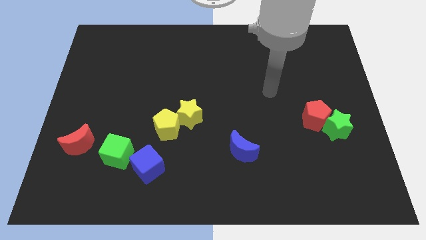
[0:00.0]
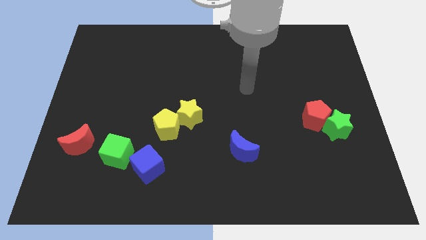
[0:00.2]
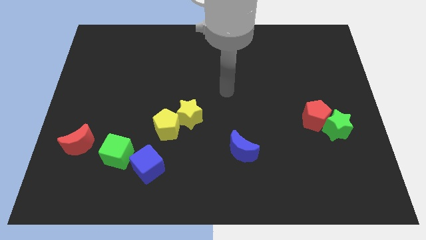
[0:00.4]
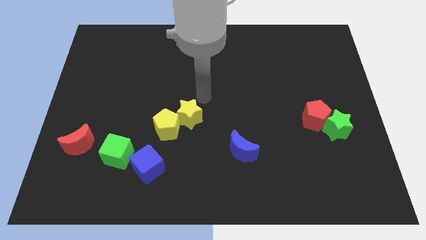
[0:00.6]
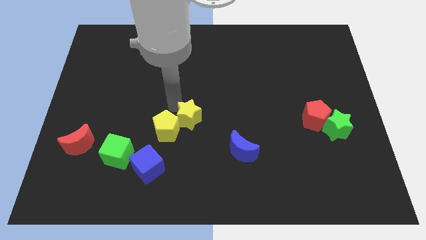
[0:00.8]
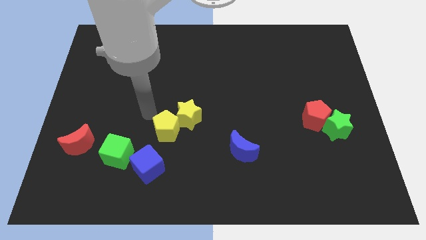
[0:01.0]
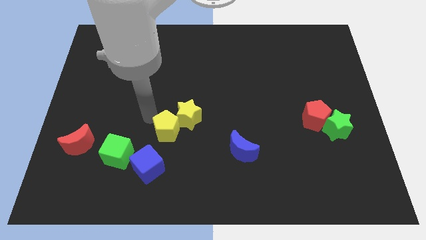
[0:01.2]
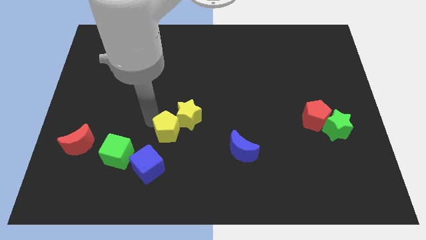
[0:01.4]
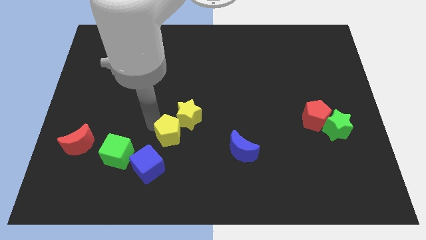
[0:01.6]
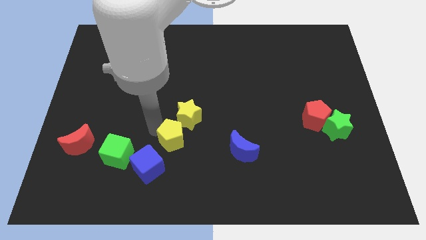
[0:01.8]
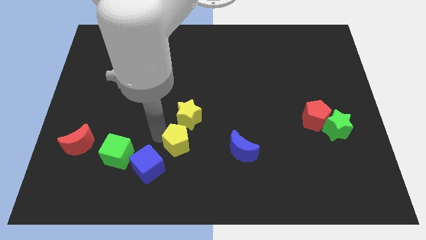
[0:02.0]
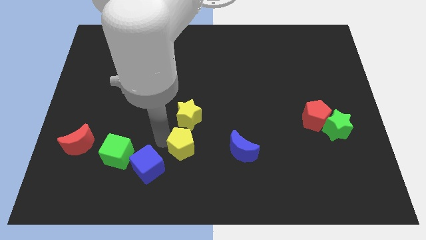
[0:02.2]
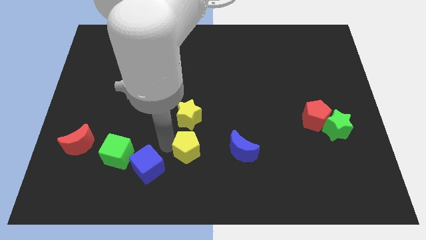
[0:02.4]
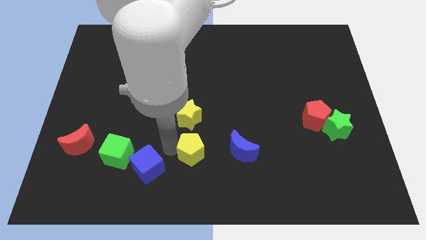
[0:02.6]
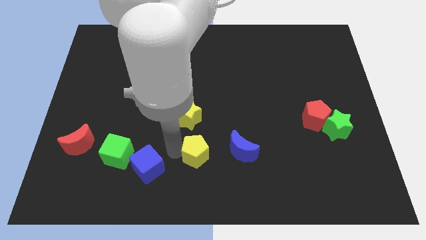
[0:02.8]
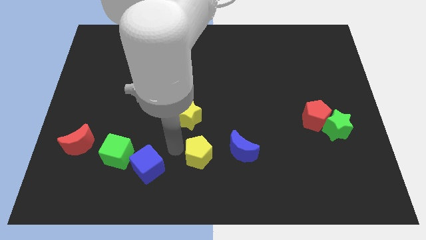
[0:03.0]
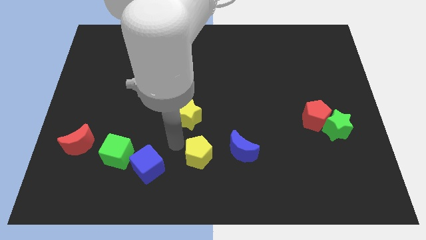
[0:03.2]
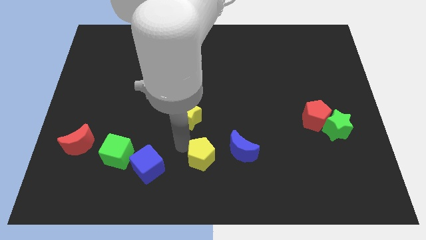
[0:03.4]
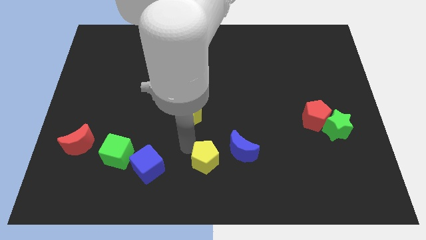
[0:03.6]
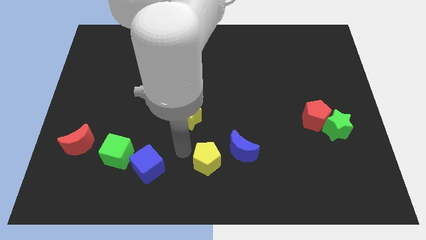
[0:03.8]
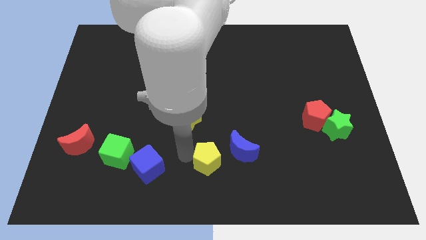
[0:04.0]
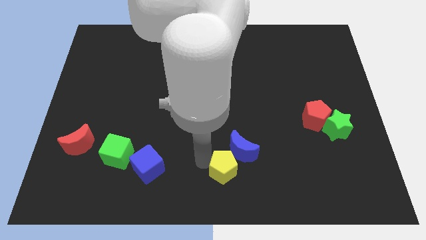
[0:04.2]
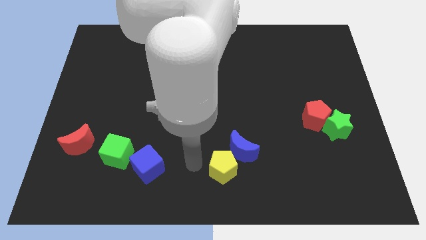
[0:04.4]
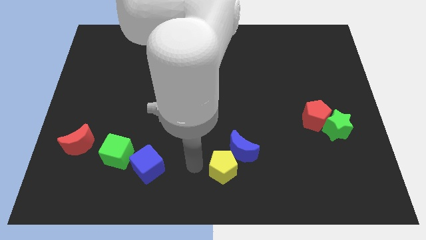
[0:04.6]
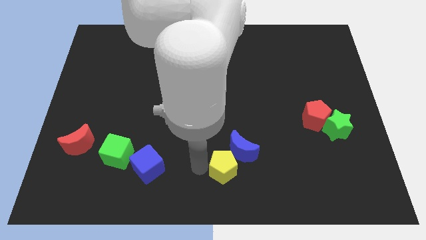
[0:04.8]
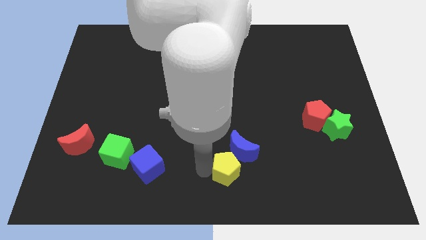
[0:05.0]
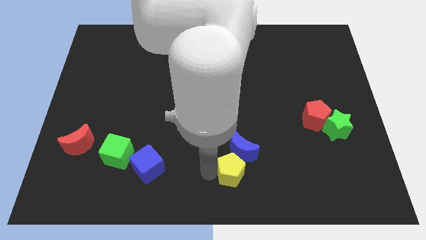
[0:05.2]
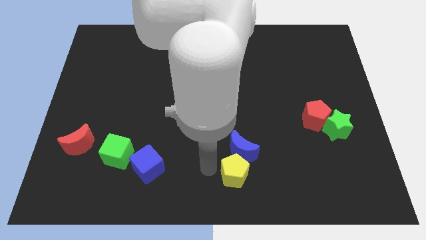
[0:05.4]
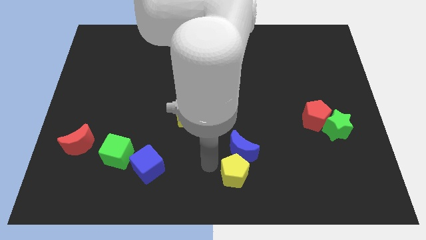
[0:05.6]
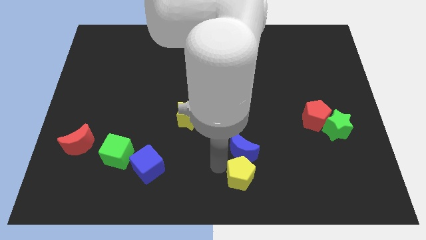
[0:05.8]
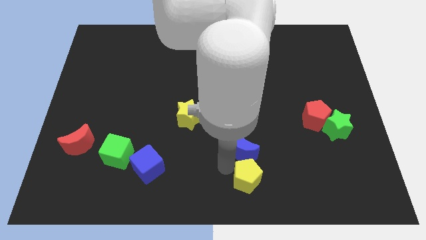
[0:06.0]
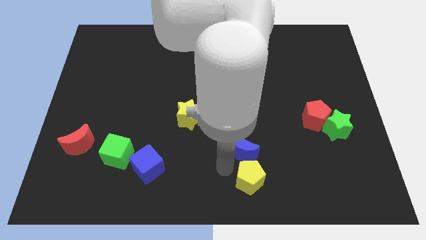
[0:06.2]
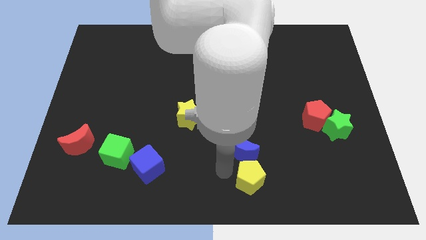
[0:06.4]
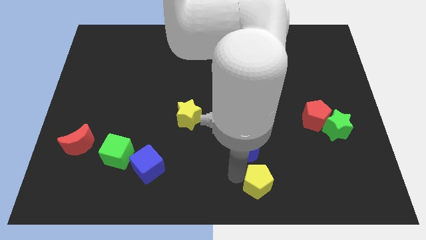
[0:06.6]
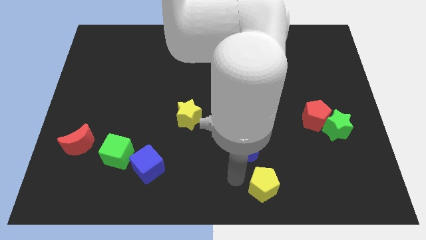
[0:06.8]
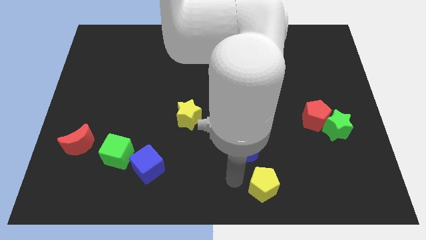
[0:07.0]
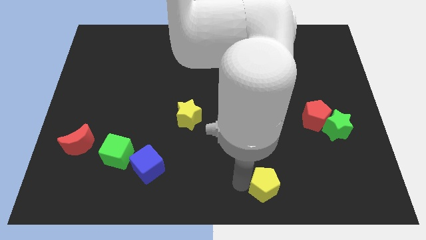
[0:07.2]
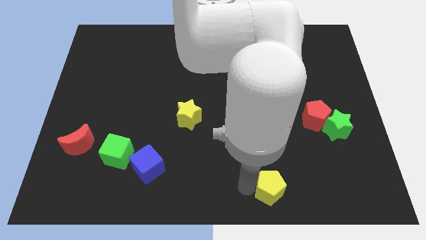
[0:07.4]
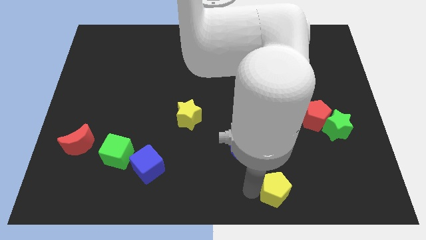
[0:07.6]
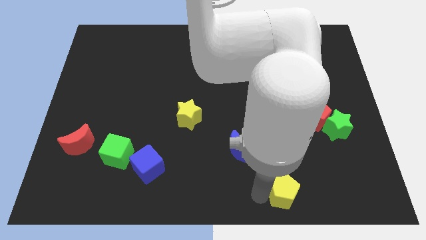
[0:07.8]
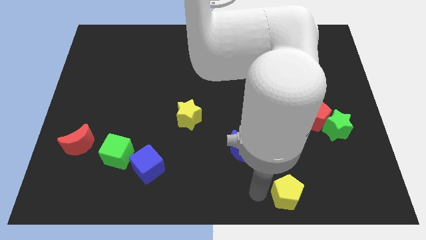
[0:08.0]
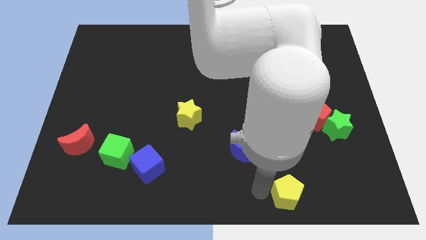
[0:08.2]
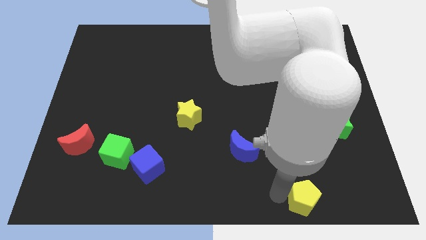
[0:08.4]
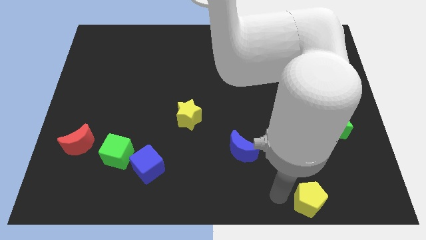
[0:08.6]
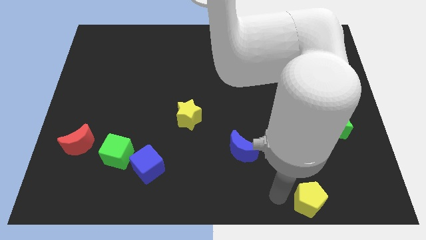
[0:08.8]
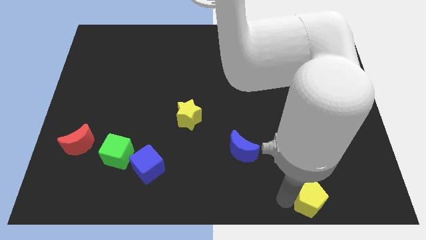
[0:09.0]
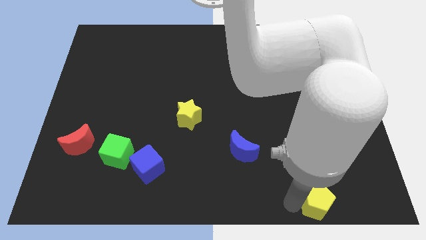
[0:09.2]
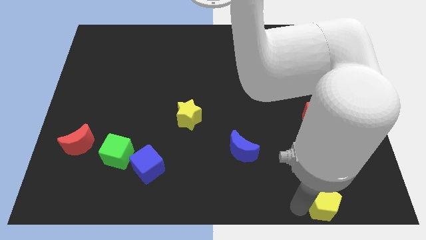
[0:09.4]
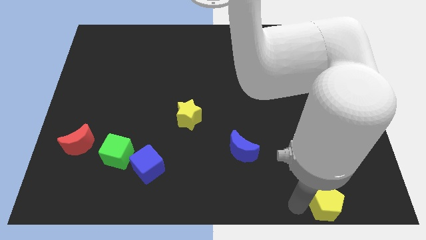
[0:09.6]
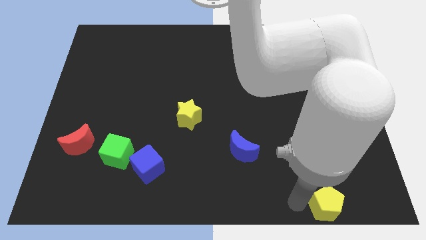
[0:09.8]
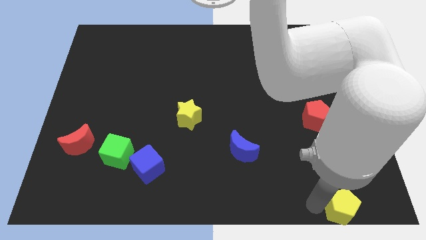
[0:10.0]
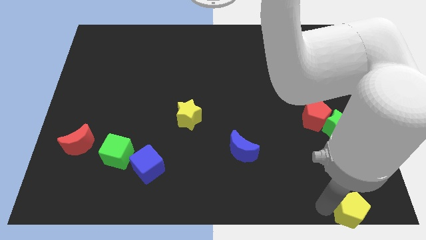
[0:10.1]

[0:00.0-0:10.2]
put the yellow pentagon to the bottom right

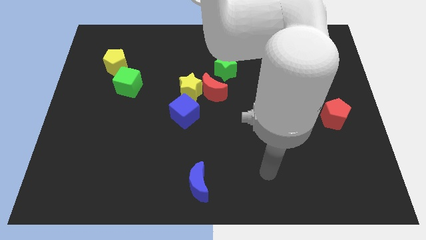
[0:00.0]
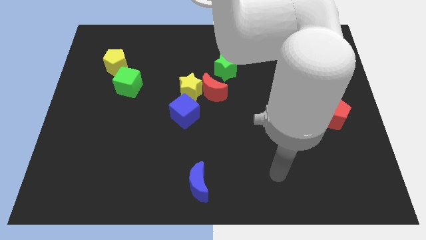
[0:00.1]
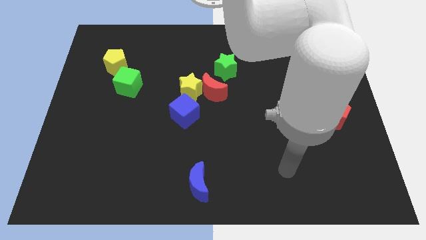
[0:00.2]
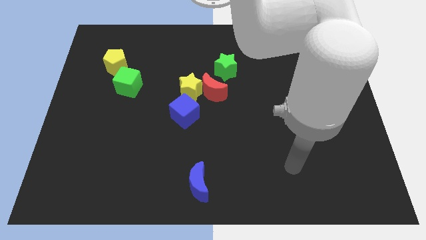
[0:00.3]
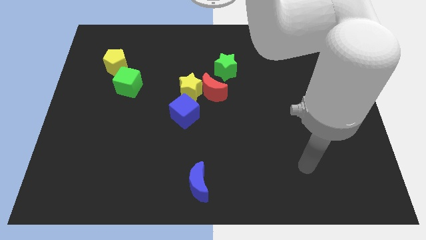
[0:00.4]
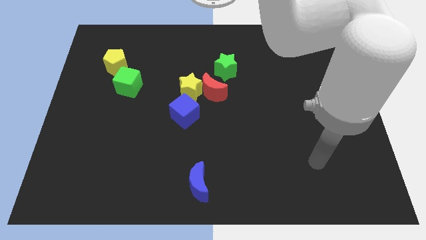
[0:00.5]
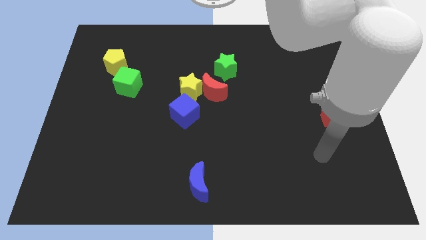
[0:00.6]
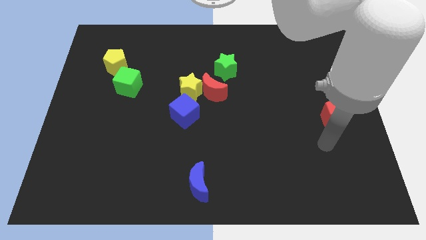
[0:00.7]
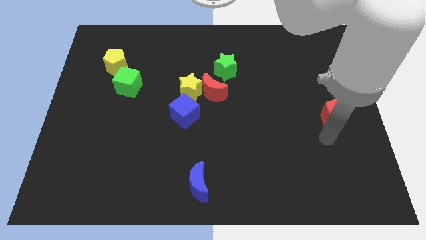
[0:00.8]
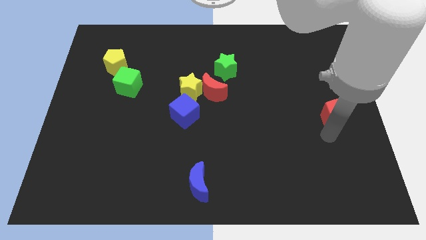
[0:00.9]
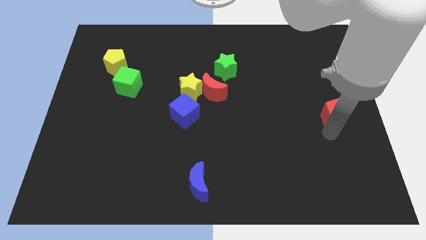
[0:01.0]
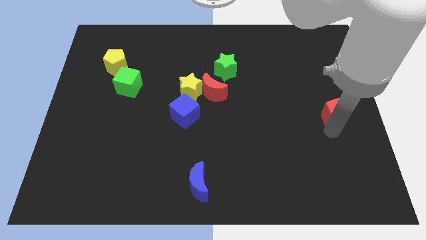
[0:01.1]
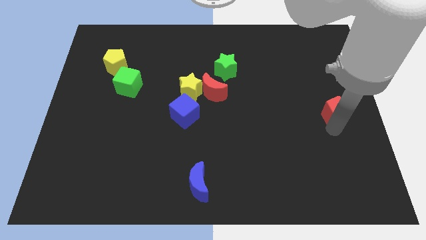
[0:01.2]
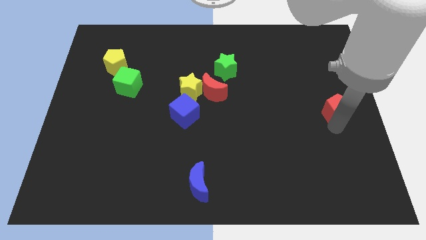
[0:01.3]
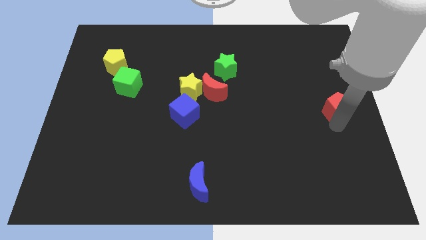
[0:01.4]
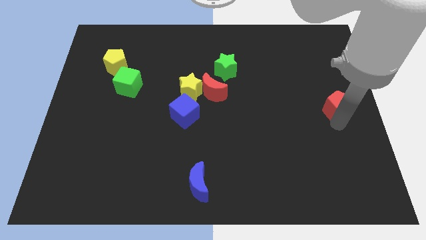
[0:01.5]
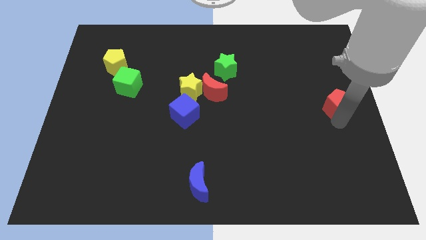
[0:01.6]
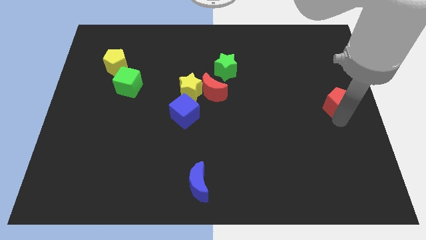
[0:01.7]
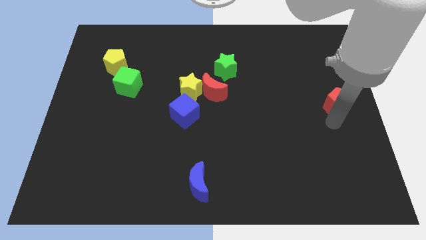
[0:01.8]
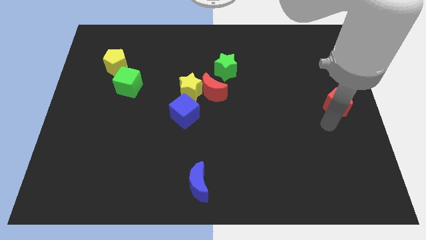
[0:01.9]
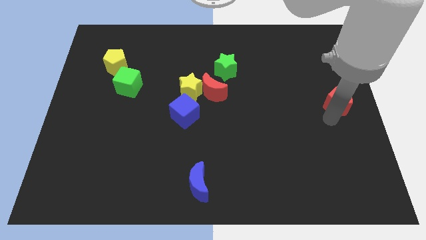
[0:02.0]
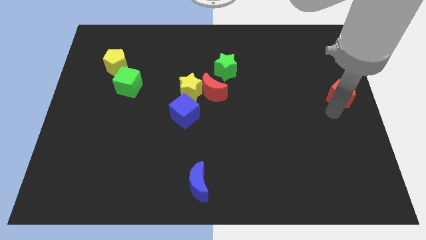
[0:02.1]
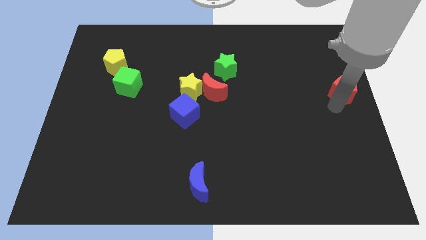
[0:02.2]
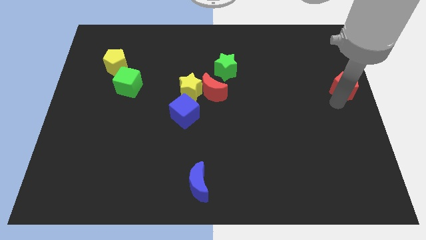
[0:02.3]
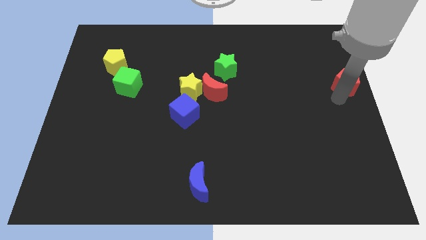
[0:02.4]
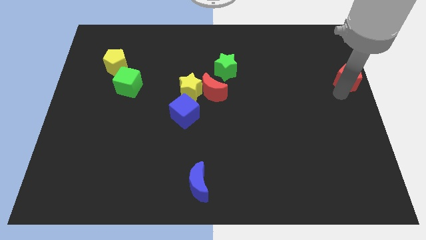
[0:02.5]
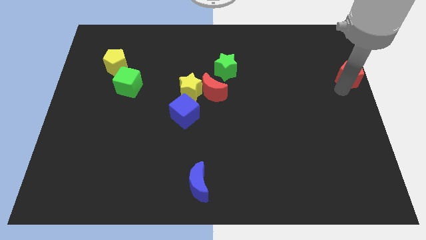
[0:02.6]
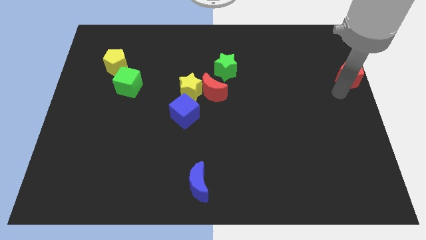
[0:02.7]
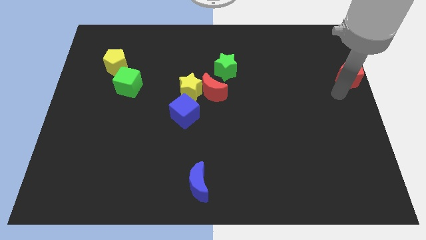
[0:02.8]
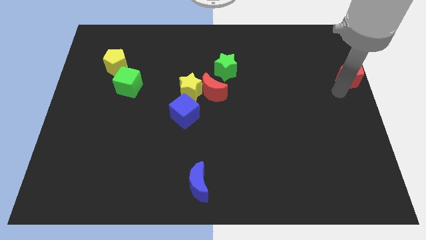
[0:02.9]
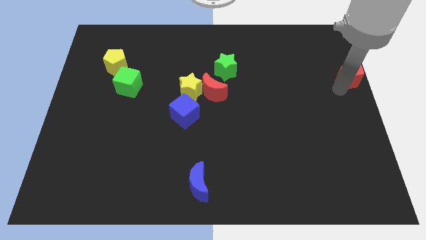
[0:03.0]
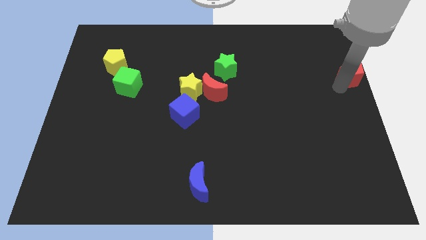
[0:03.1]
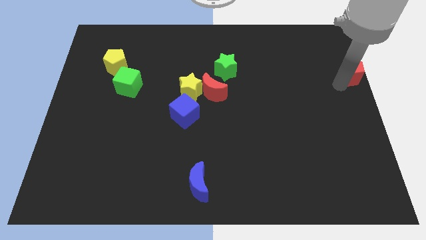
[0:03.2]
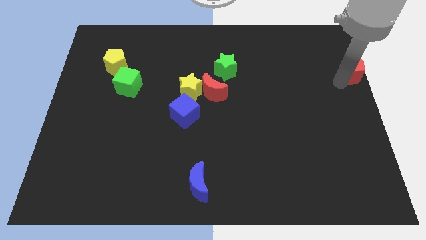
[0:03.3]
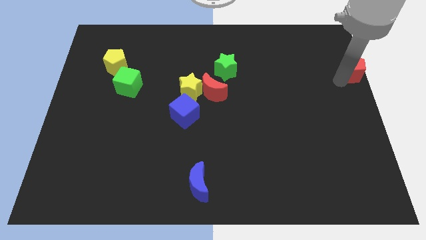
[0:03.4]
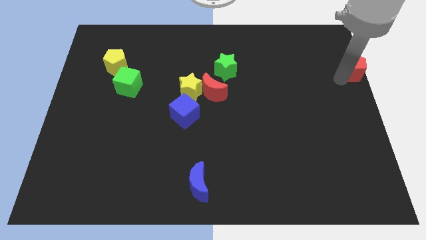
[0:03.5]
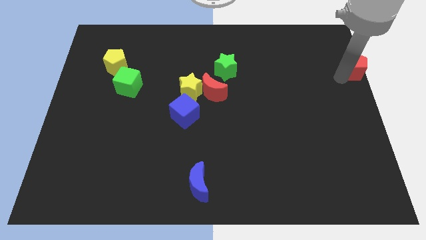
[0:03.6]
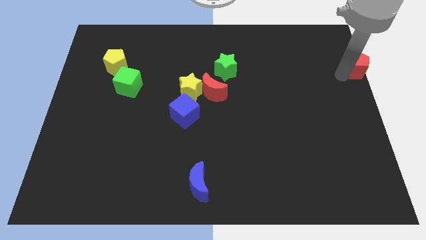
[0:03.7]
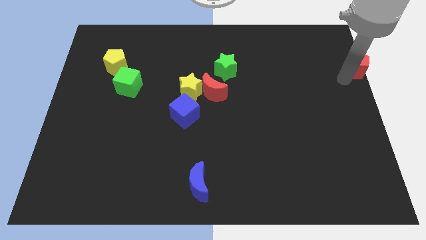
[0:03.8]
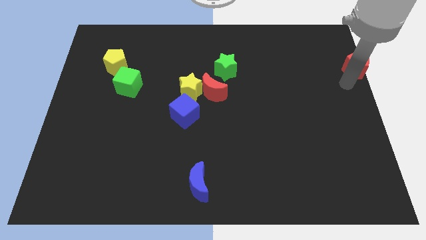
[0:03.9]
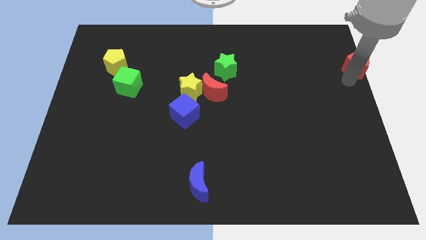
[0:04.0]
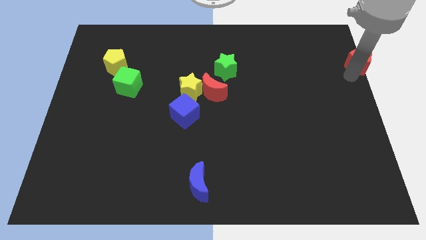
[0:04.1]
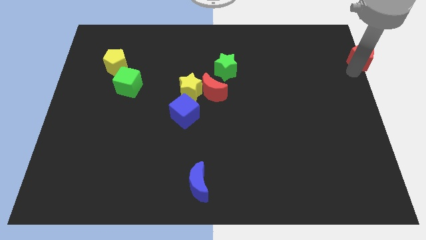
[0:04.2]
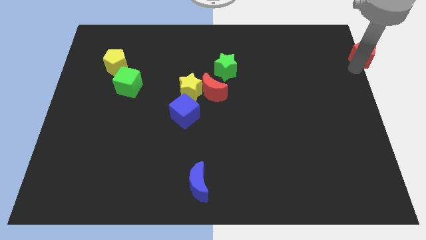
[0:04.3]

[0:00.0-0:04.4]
push the red pentagon to the upper right corner
